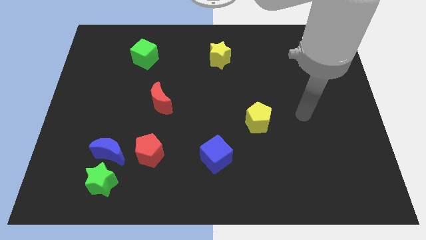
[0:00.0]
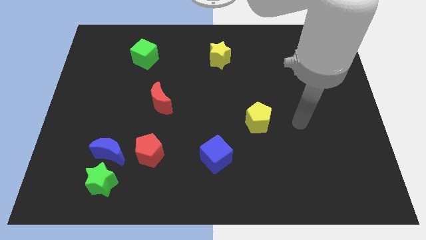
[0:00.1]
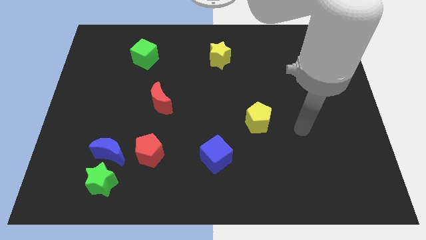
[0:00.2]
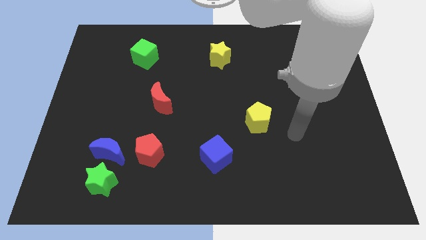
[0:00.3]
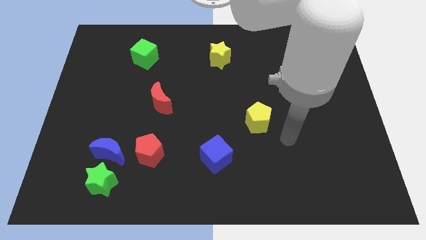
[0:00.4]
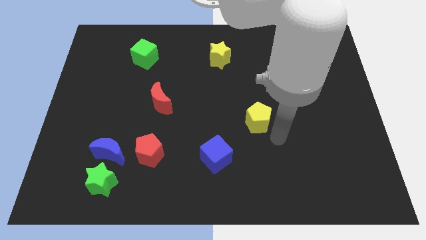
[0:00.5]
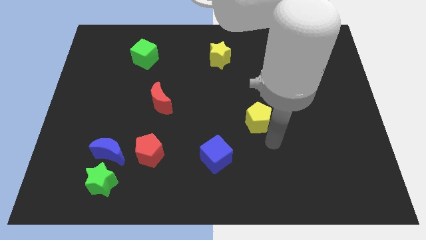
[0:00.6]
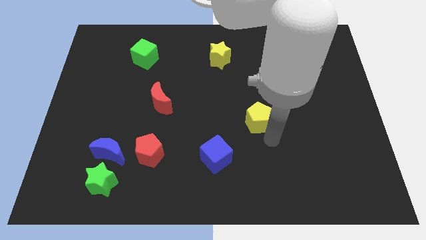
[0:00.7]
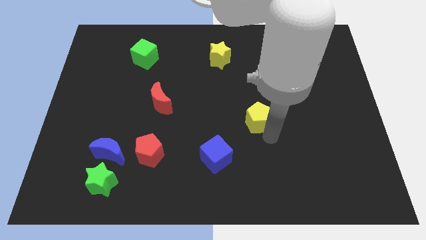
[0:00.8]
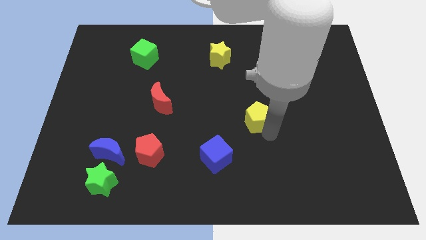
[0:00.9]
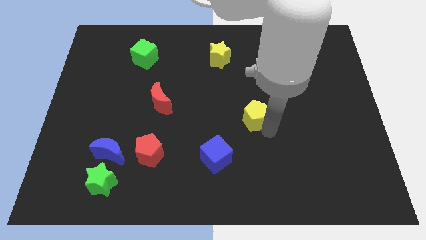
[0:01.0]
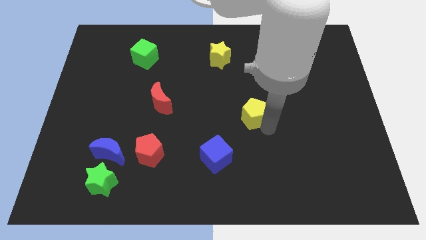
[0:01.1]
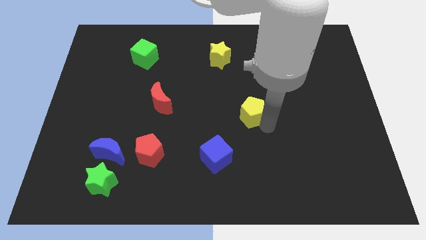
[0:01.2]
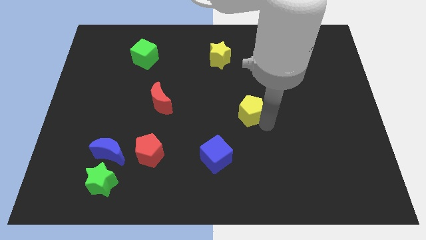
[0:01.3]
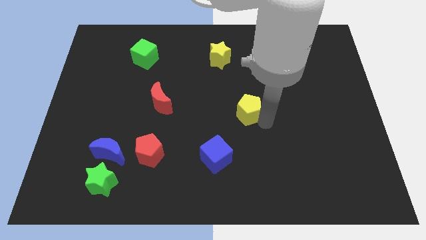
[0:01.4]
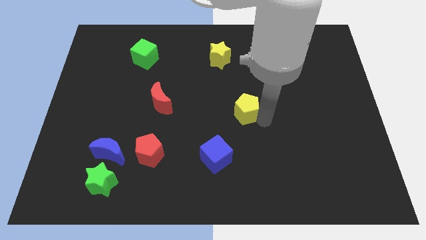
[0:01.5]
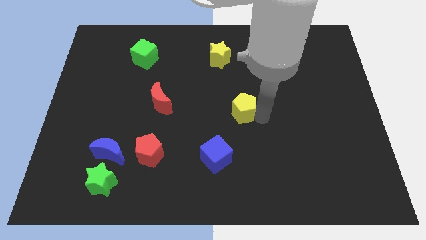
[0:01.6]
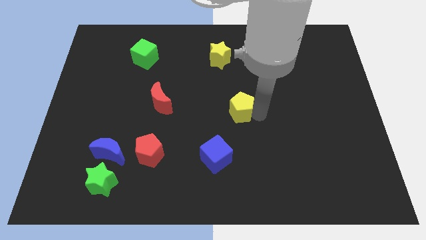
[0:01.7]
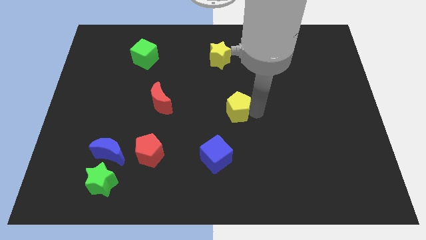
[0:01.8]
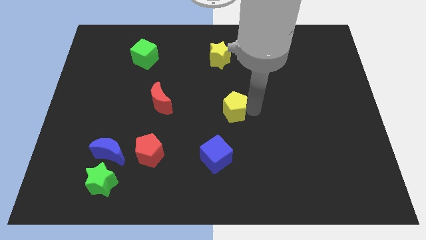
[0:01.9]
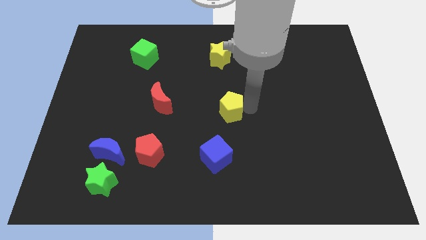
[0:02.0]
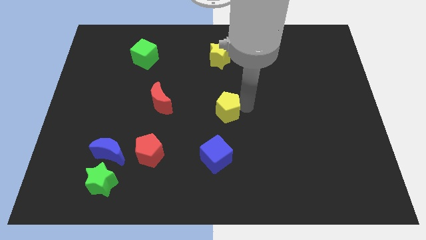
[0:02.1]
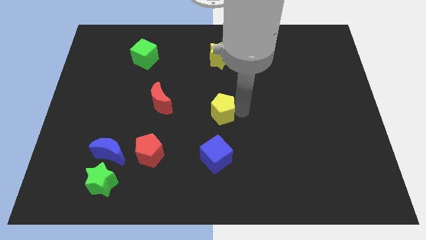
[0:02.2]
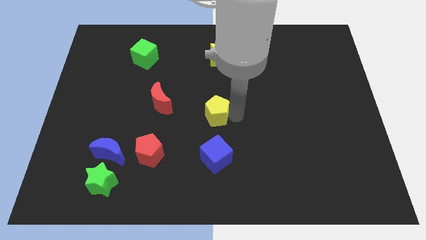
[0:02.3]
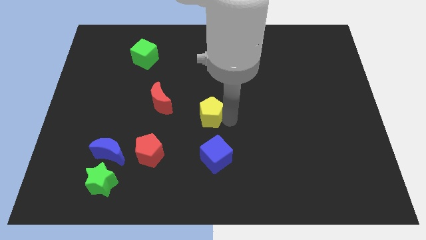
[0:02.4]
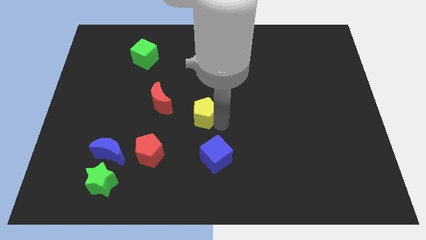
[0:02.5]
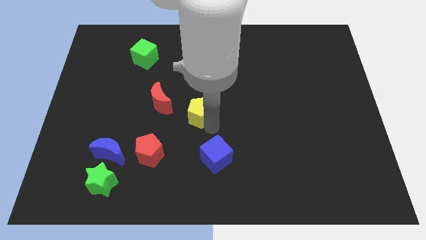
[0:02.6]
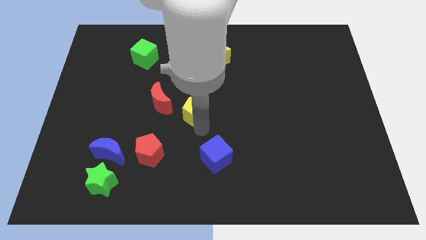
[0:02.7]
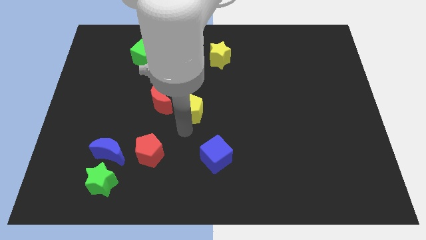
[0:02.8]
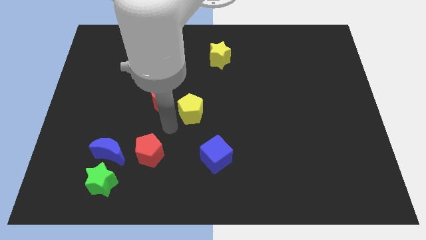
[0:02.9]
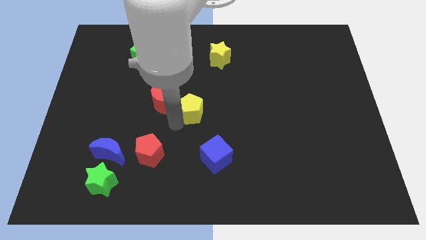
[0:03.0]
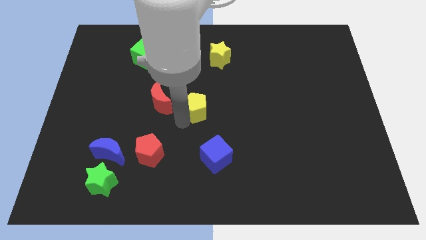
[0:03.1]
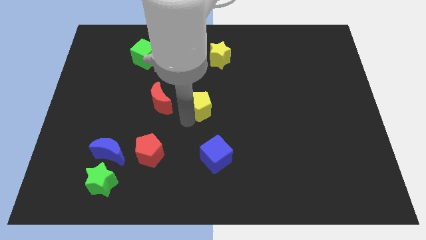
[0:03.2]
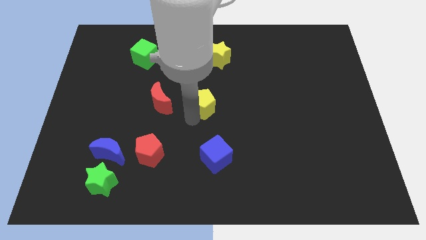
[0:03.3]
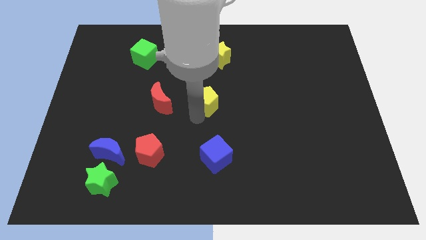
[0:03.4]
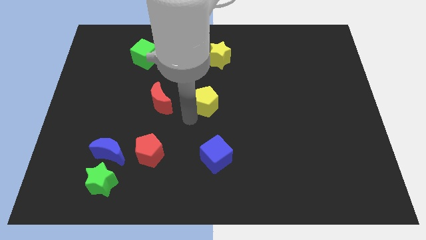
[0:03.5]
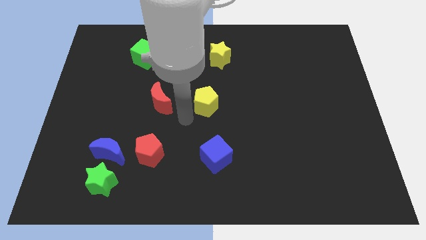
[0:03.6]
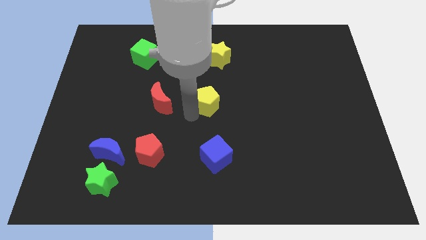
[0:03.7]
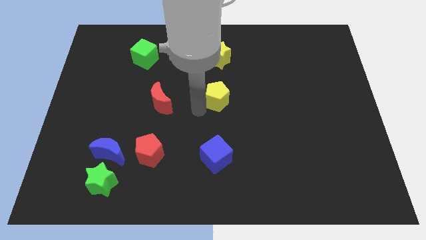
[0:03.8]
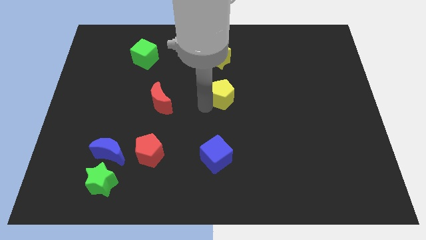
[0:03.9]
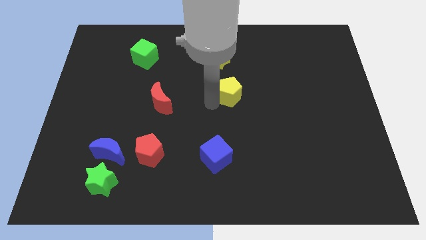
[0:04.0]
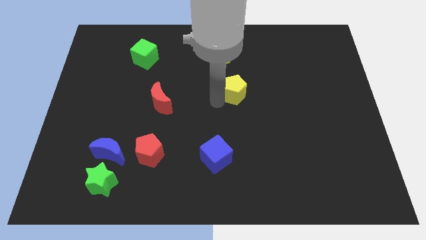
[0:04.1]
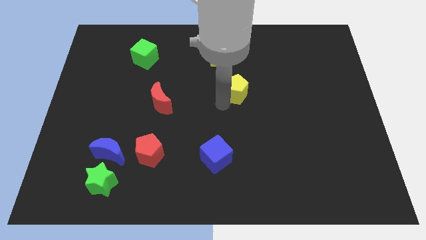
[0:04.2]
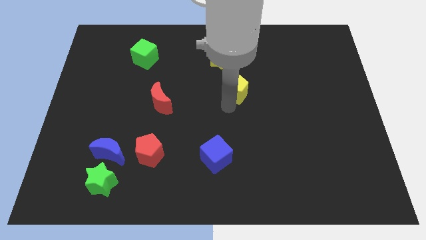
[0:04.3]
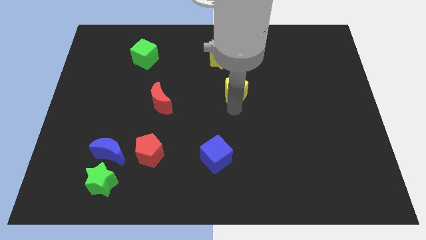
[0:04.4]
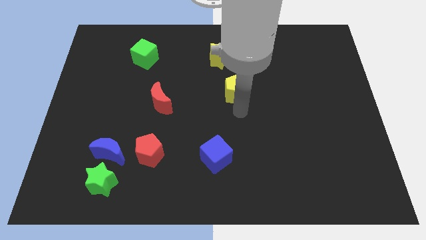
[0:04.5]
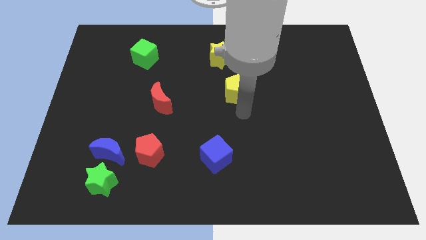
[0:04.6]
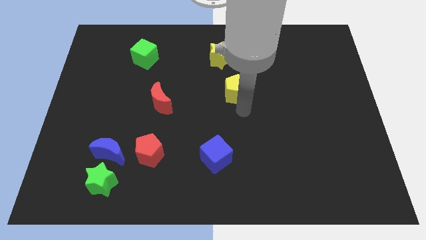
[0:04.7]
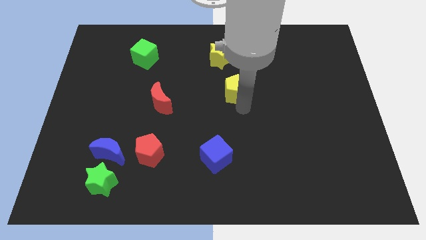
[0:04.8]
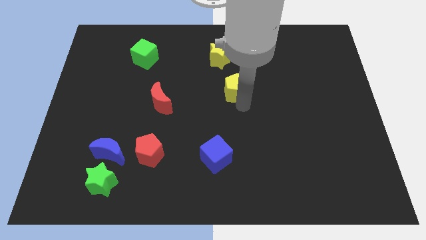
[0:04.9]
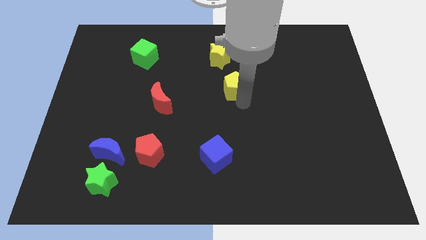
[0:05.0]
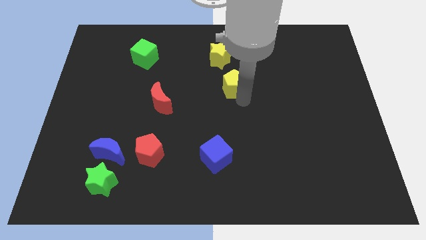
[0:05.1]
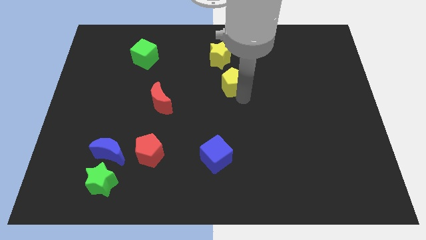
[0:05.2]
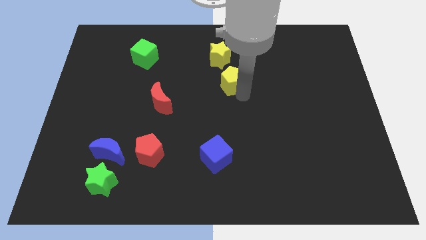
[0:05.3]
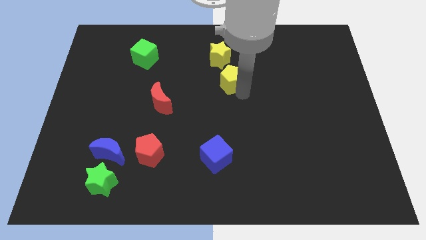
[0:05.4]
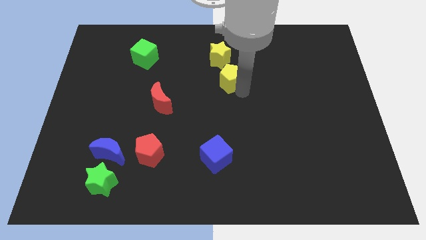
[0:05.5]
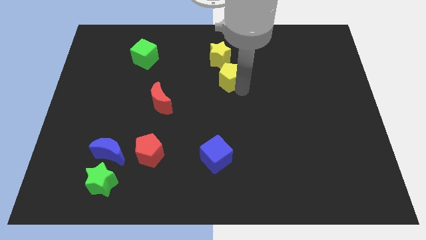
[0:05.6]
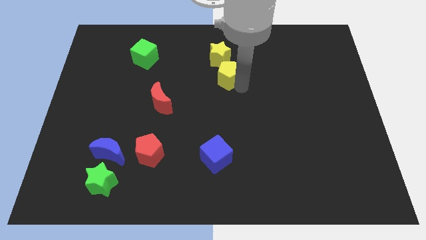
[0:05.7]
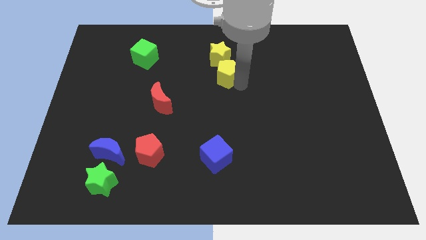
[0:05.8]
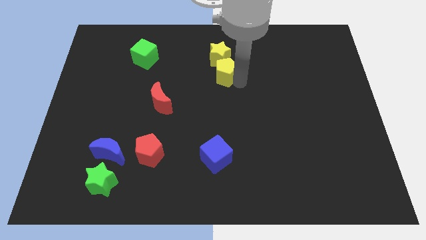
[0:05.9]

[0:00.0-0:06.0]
push the yellow pentagon close to the yellow star

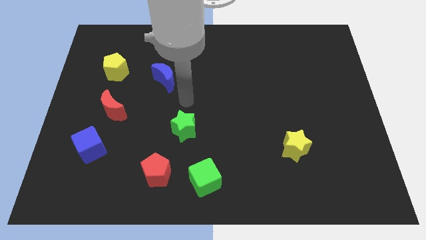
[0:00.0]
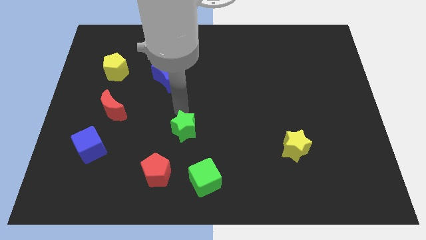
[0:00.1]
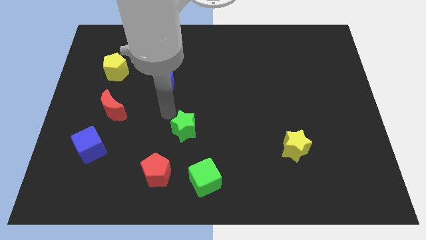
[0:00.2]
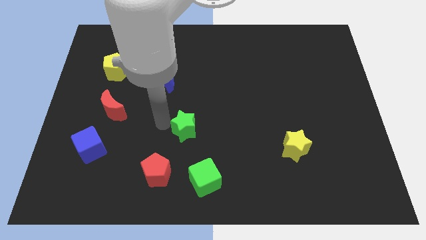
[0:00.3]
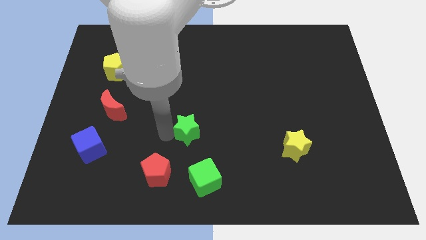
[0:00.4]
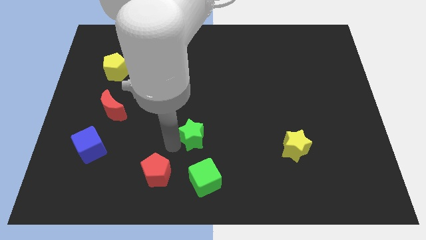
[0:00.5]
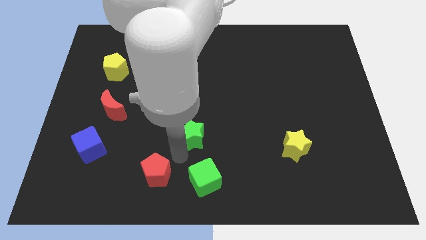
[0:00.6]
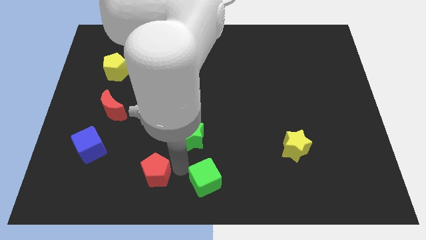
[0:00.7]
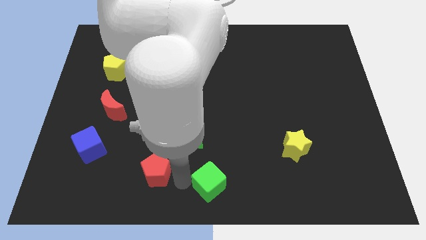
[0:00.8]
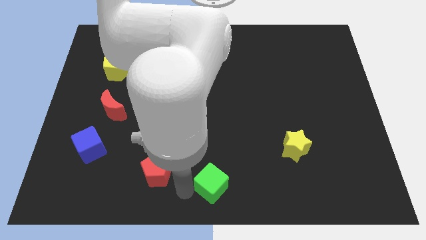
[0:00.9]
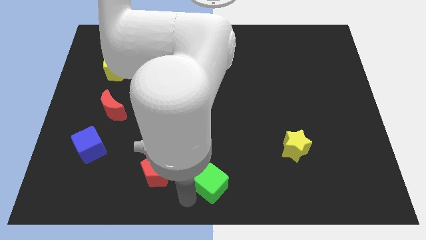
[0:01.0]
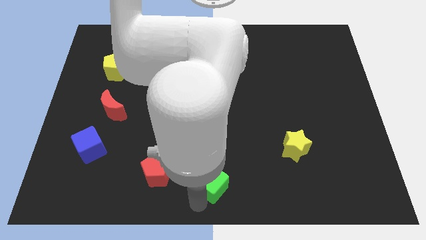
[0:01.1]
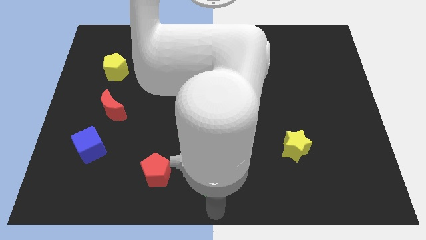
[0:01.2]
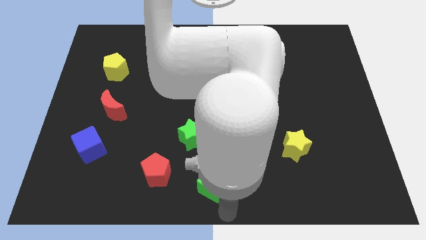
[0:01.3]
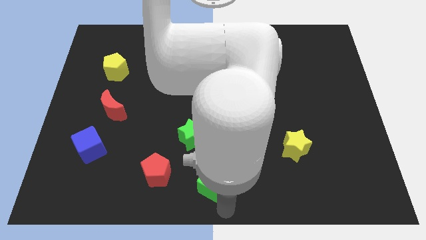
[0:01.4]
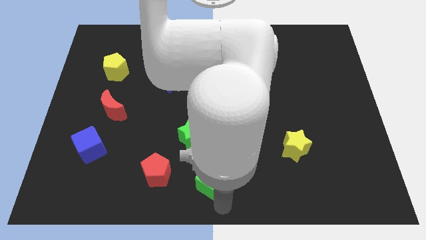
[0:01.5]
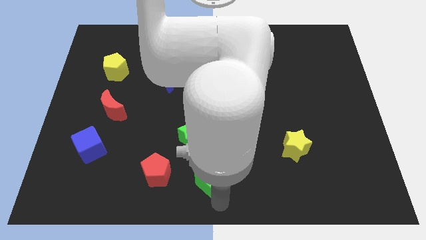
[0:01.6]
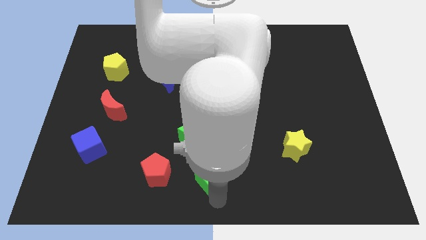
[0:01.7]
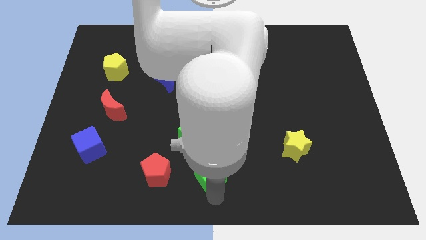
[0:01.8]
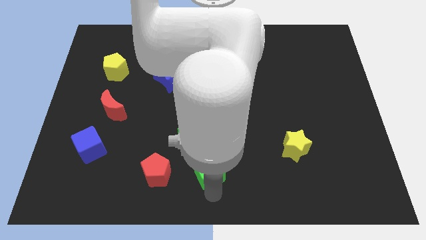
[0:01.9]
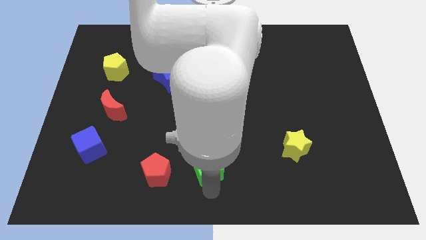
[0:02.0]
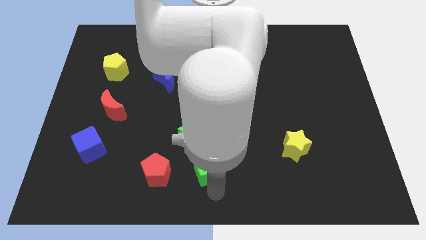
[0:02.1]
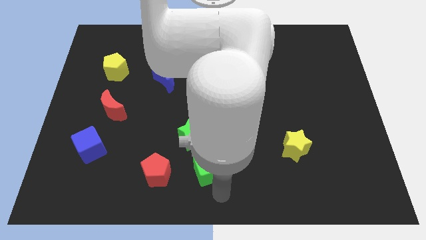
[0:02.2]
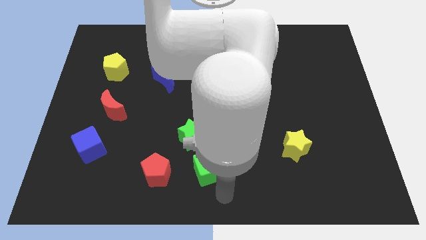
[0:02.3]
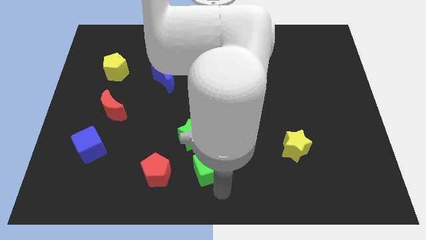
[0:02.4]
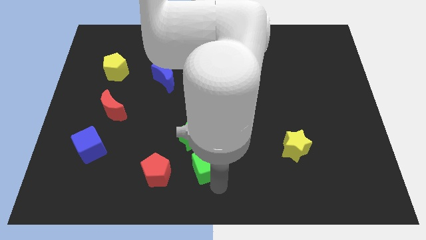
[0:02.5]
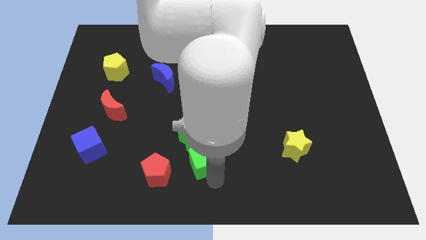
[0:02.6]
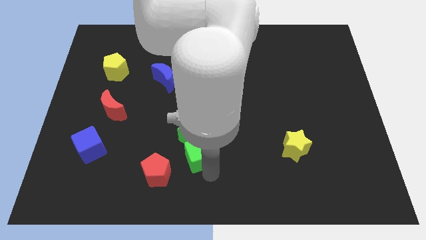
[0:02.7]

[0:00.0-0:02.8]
put the green cube towards the green star
